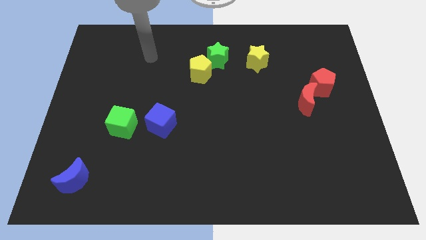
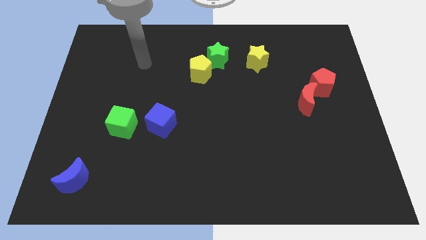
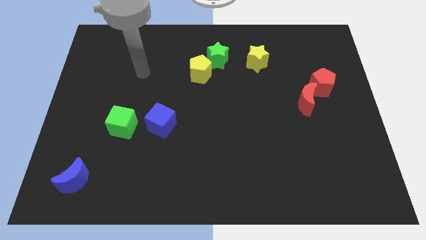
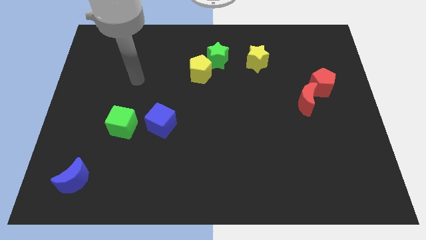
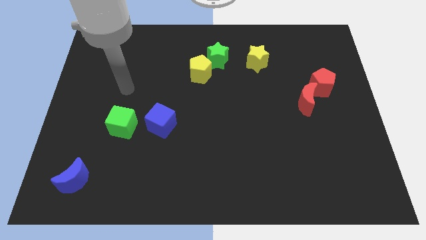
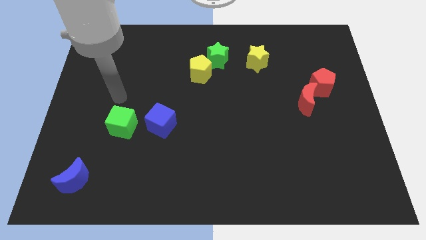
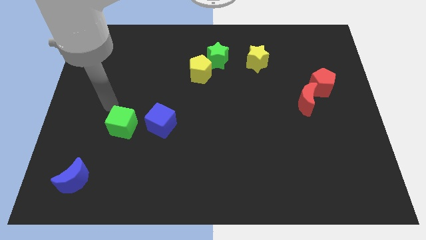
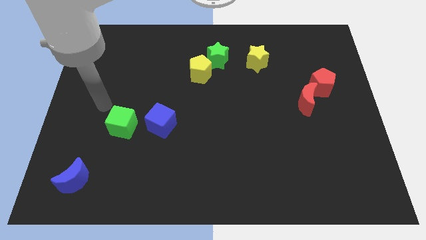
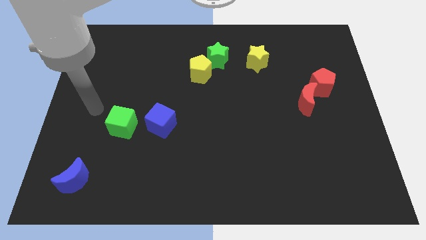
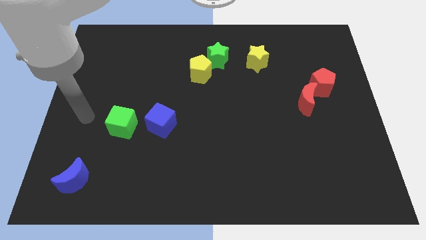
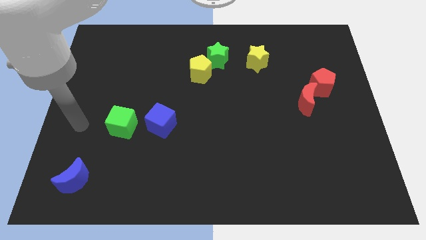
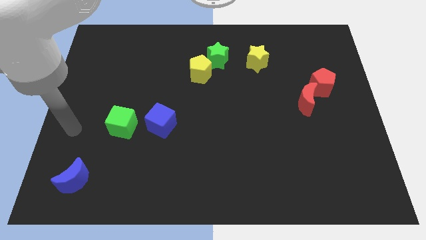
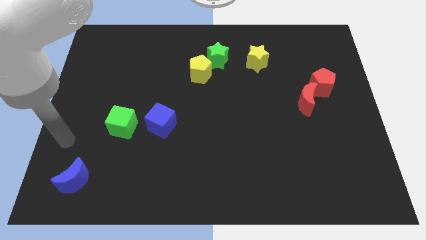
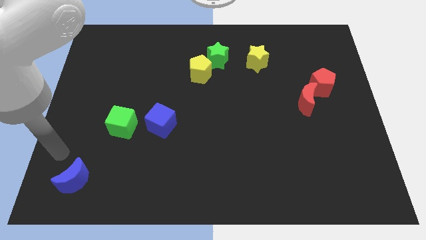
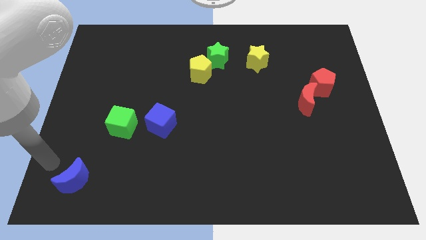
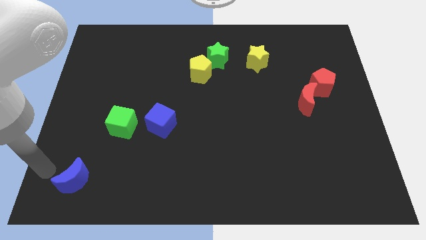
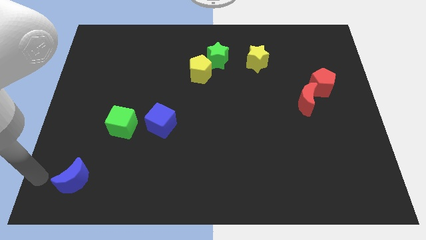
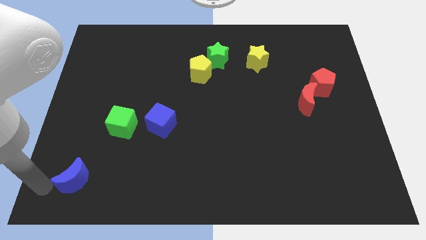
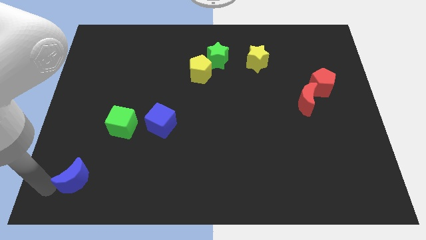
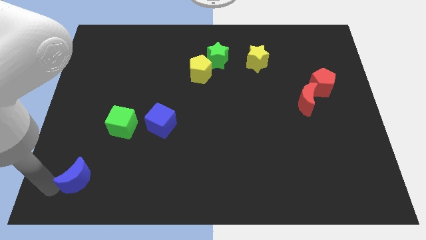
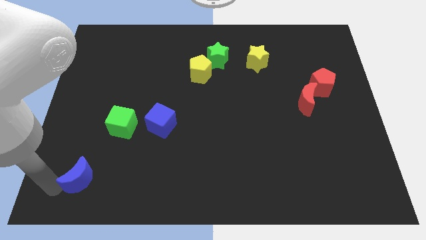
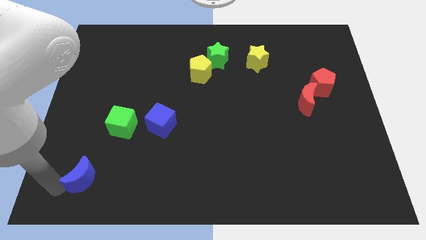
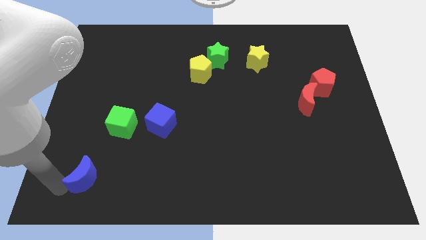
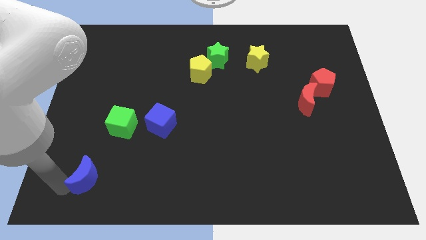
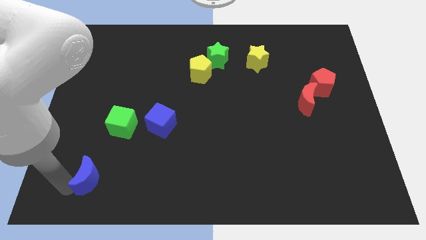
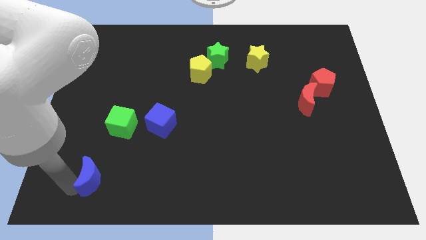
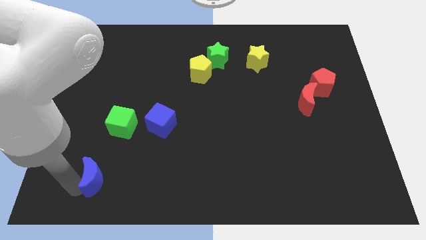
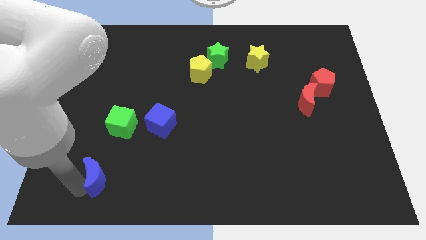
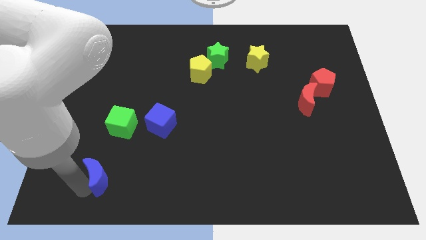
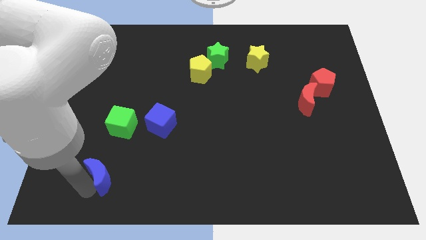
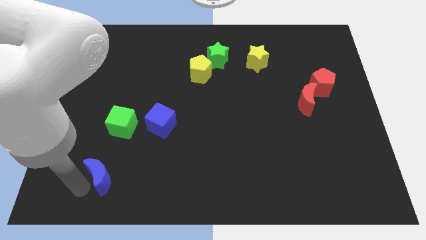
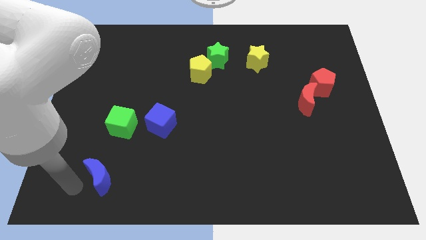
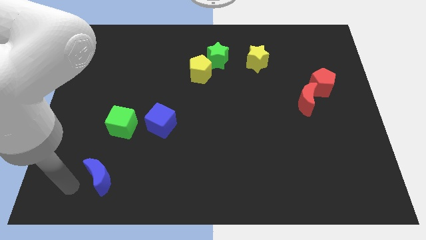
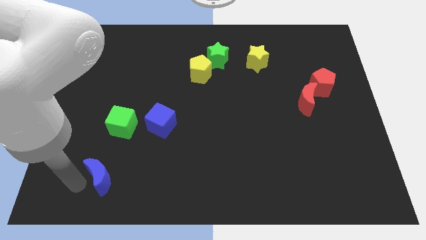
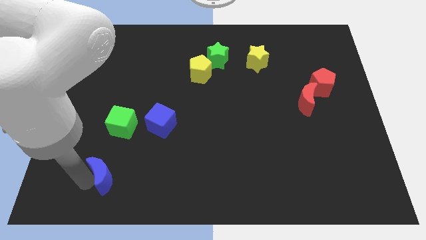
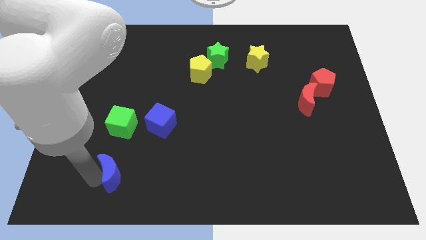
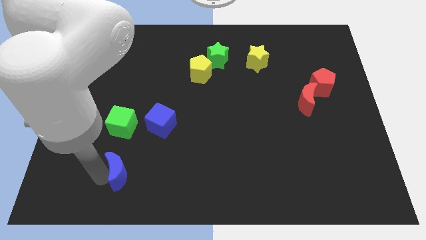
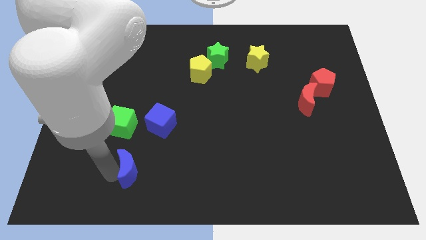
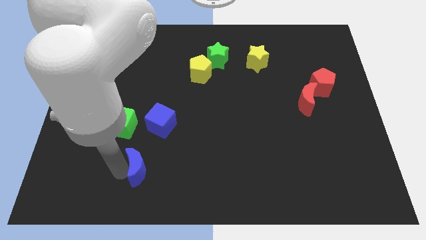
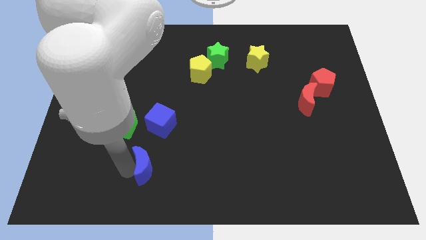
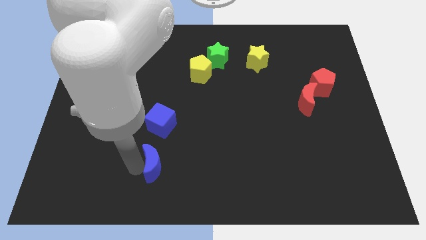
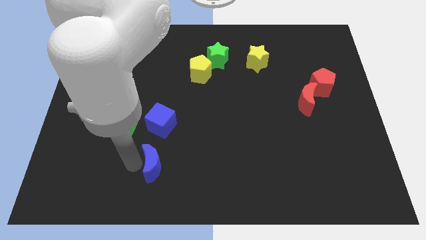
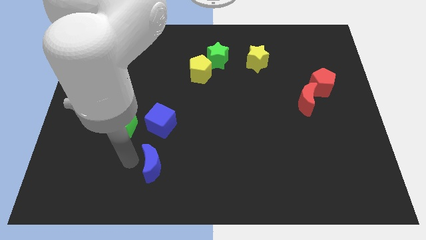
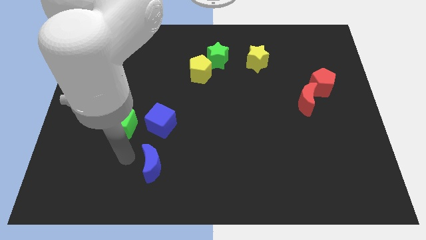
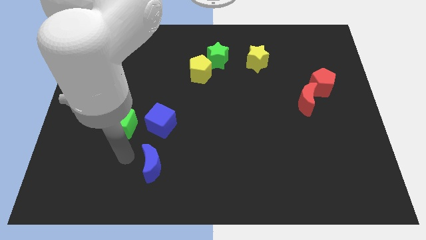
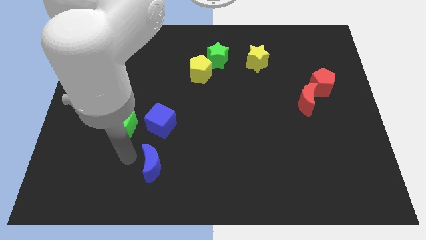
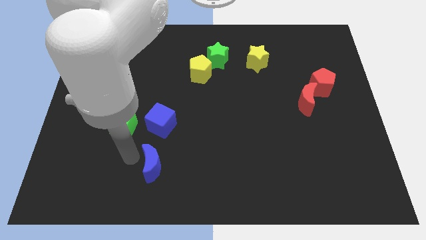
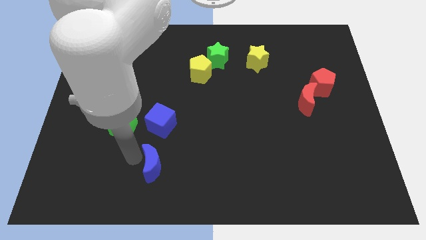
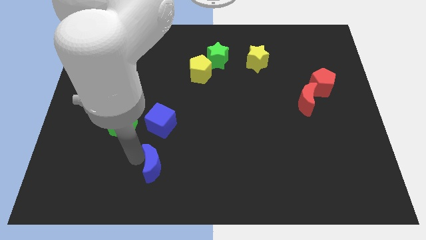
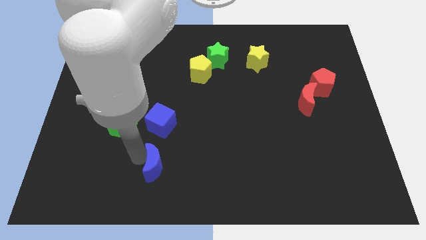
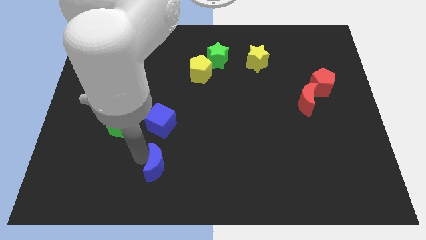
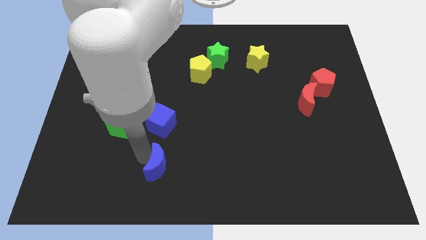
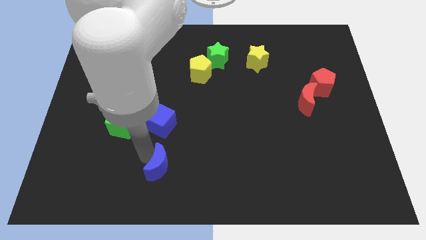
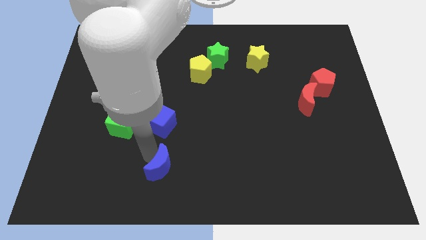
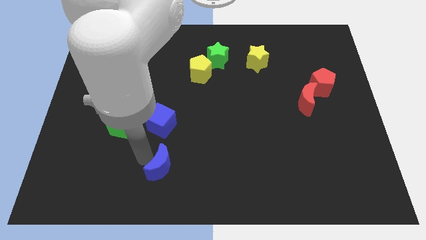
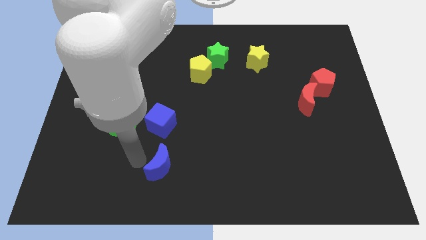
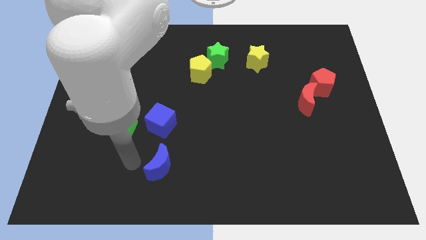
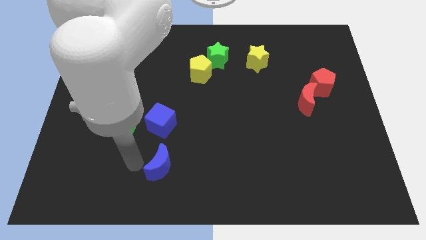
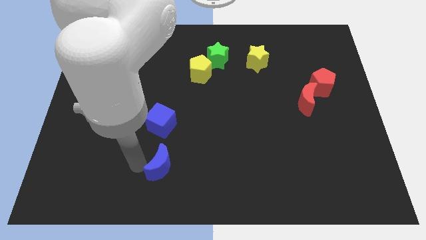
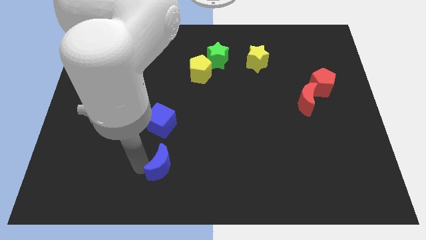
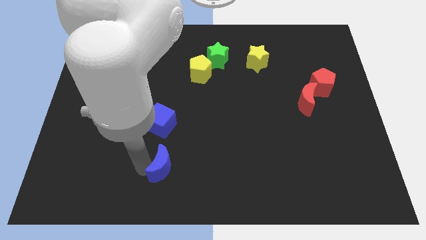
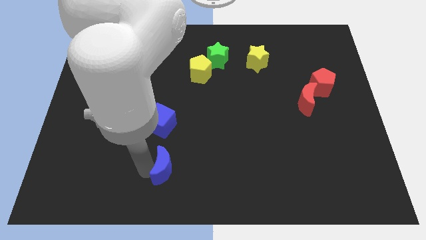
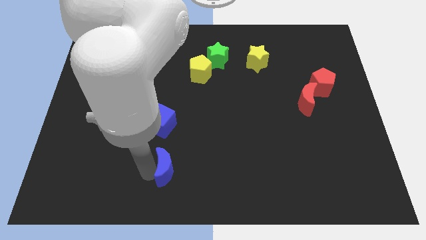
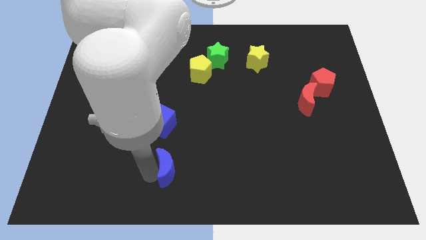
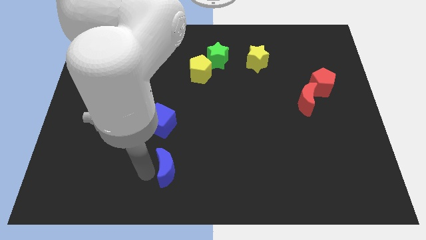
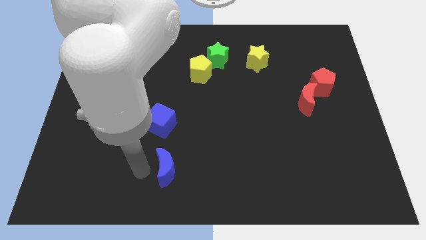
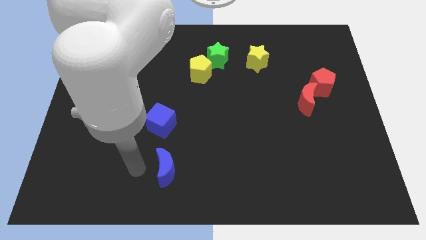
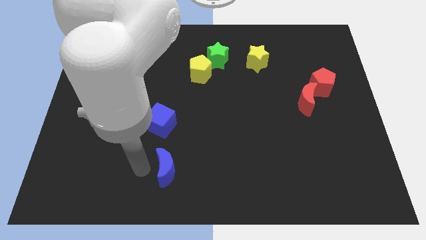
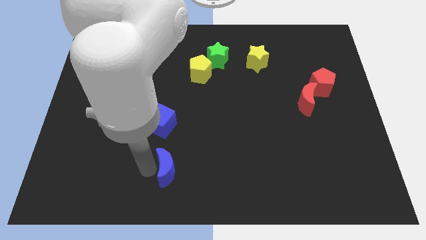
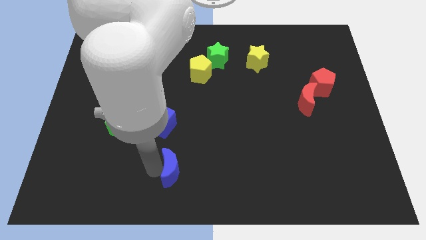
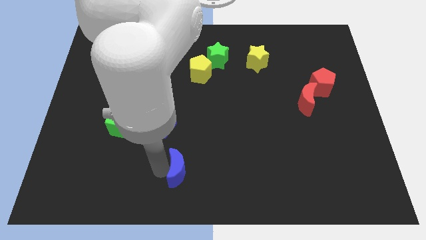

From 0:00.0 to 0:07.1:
slide the blue moon to the right

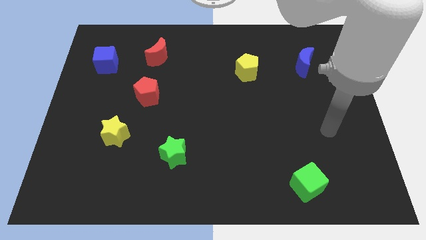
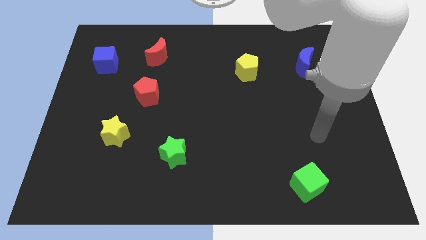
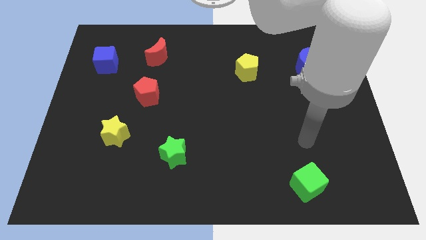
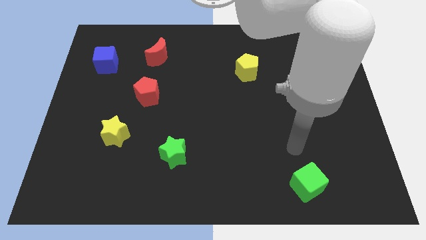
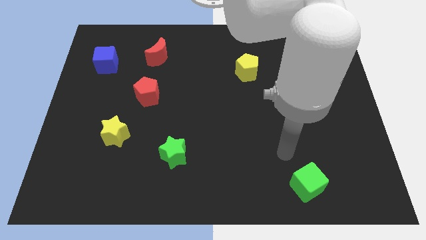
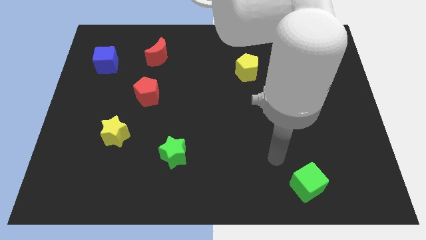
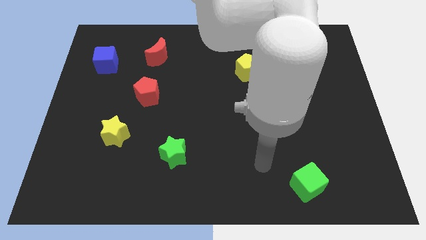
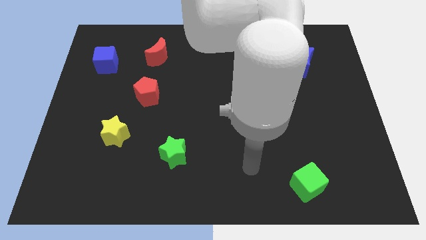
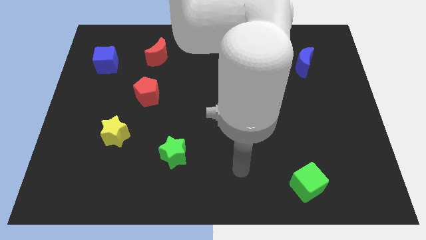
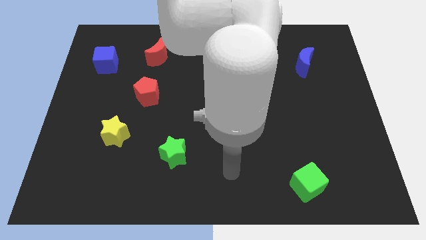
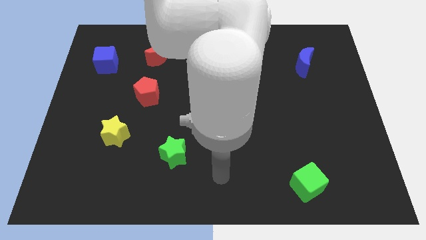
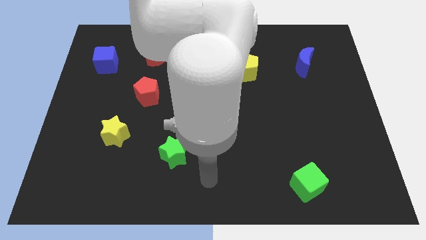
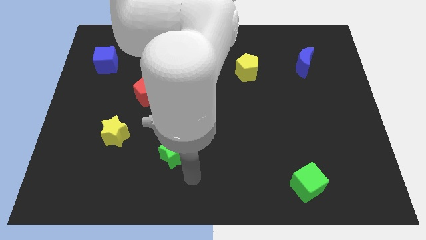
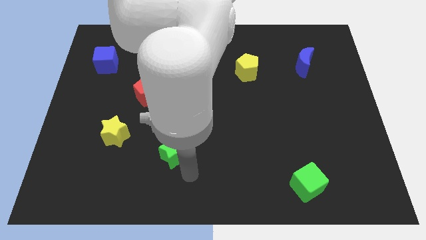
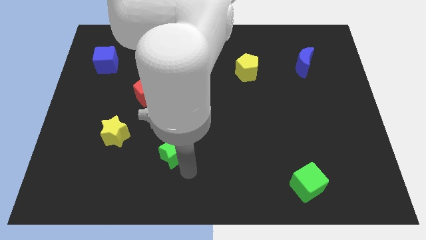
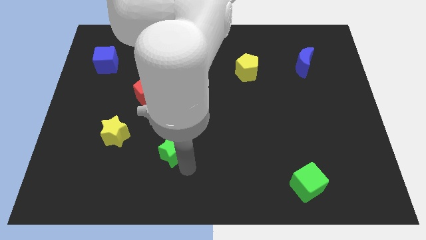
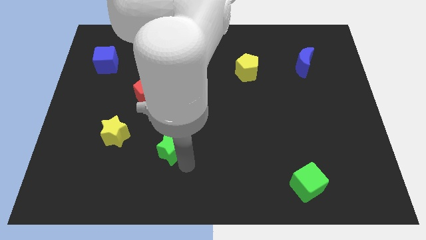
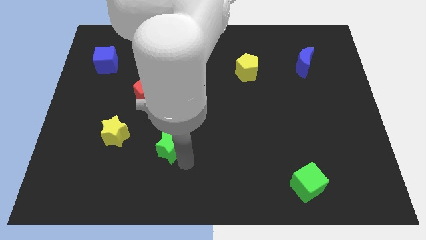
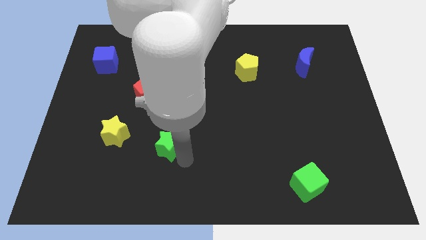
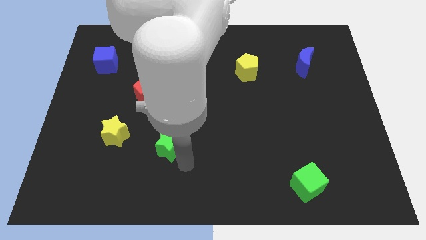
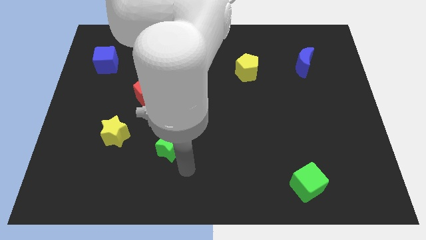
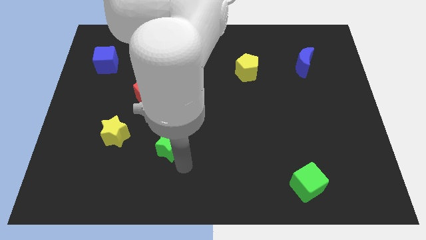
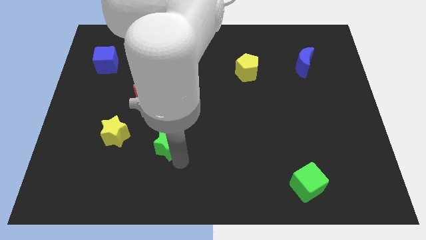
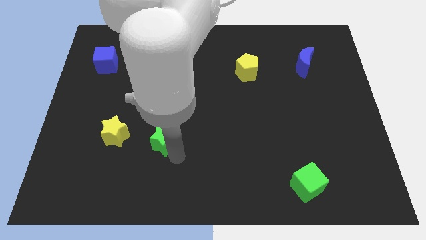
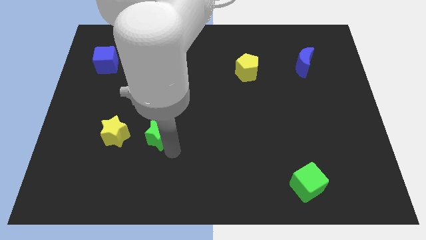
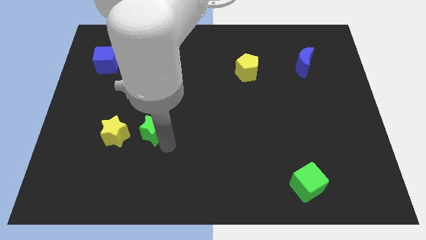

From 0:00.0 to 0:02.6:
move the green star a bit upwards and left
